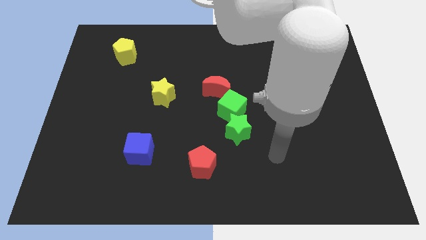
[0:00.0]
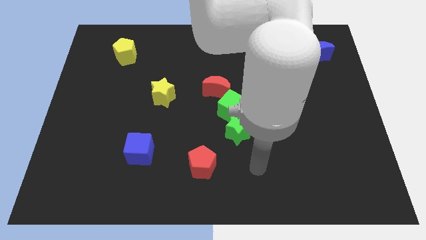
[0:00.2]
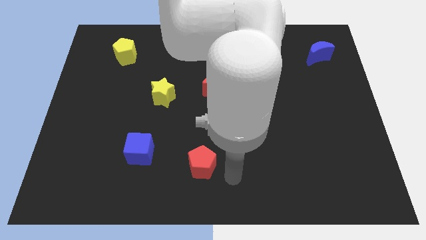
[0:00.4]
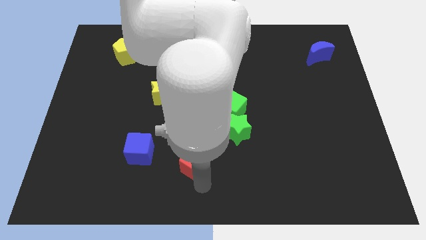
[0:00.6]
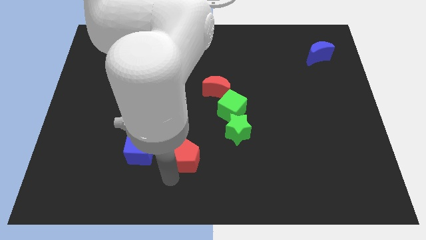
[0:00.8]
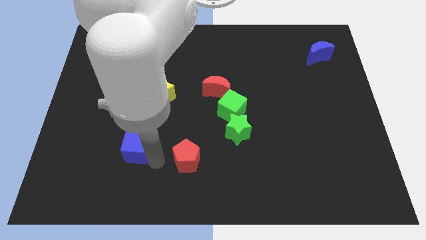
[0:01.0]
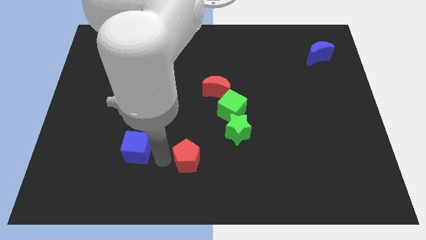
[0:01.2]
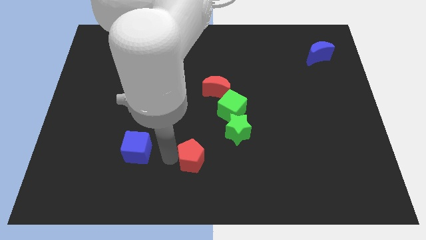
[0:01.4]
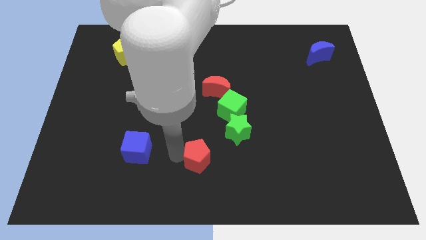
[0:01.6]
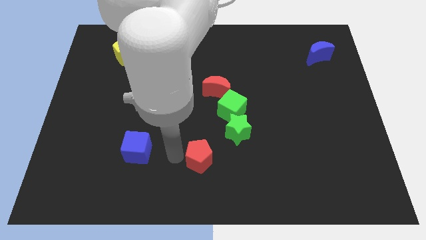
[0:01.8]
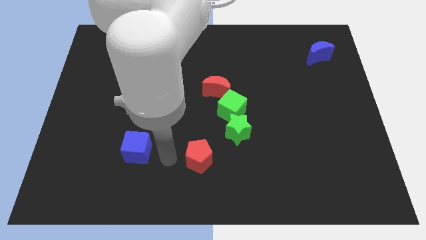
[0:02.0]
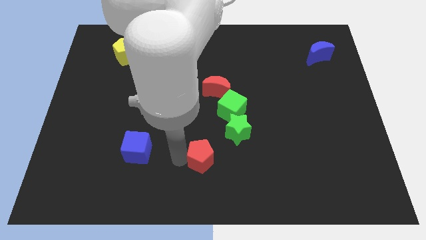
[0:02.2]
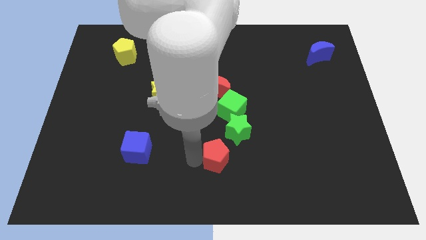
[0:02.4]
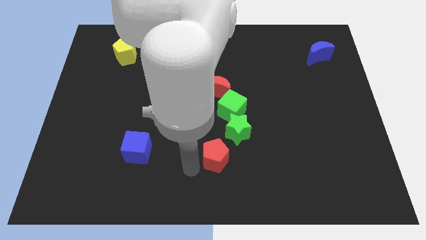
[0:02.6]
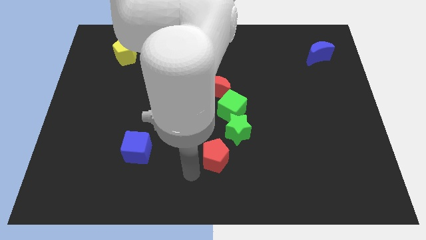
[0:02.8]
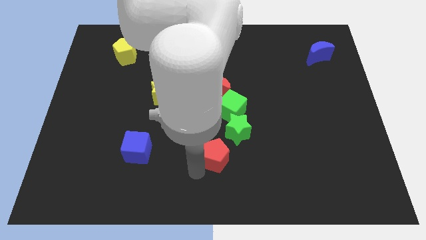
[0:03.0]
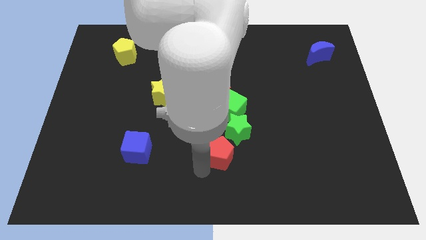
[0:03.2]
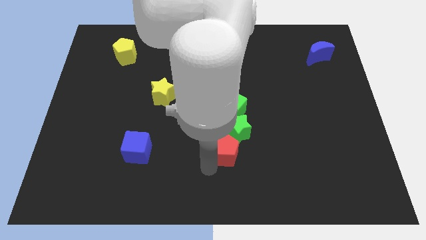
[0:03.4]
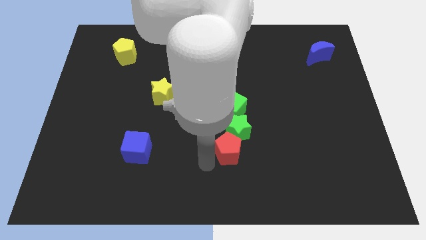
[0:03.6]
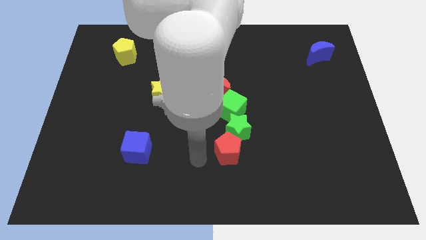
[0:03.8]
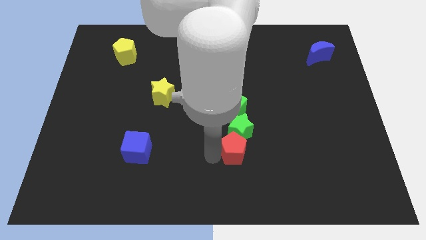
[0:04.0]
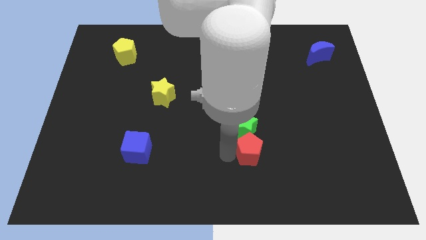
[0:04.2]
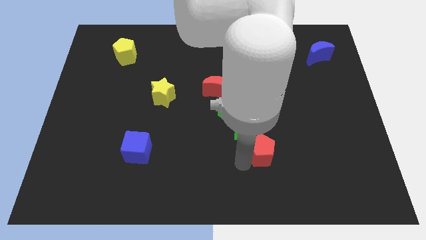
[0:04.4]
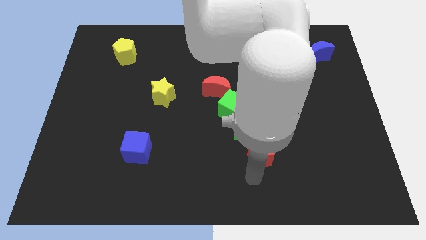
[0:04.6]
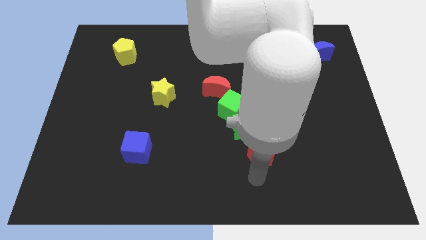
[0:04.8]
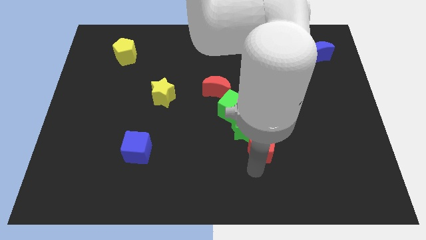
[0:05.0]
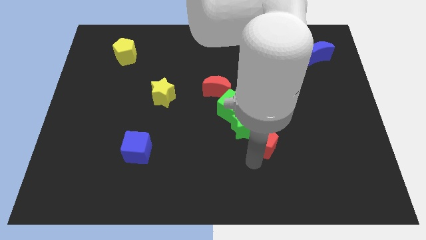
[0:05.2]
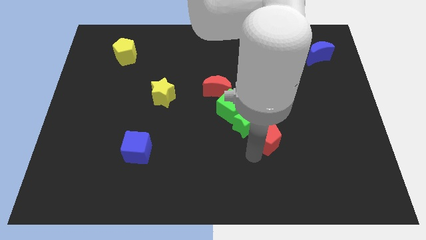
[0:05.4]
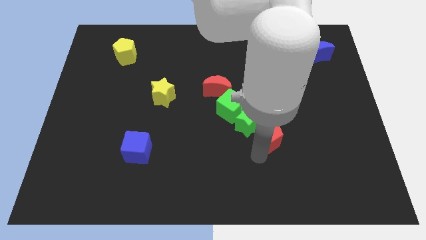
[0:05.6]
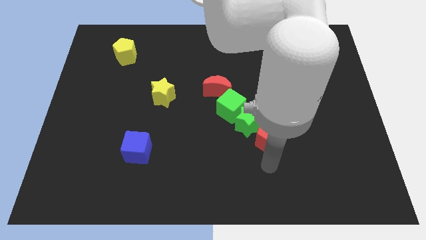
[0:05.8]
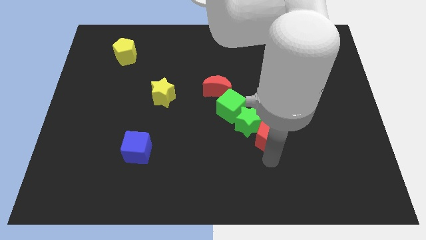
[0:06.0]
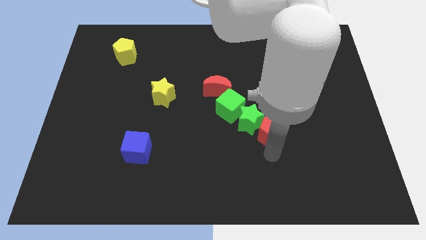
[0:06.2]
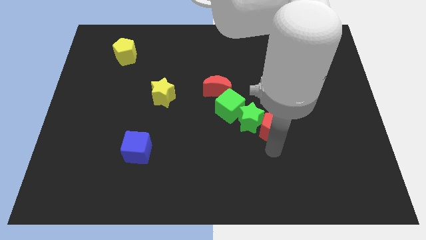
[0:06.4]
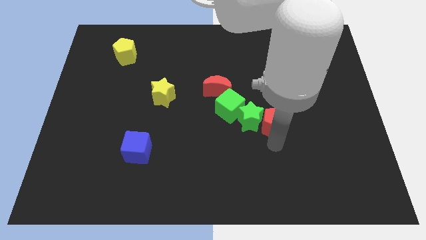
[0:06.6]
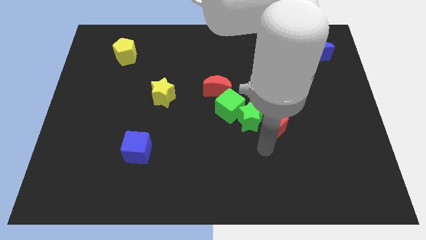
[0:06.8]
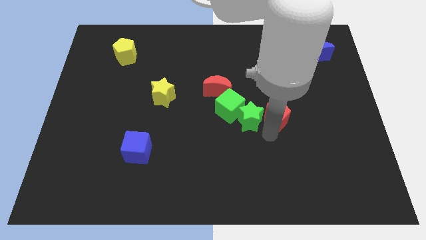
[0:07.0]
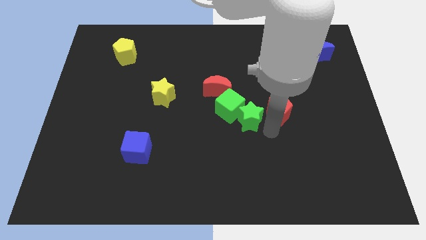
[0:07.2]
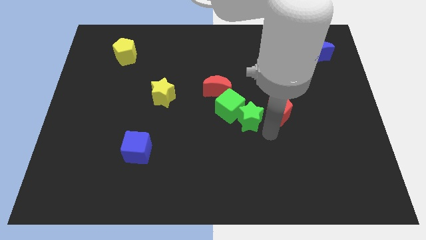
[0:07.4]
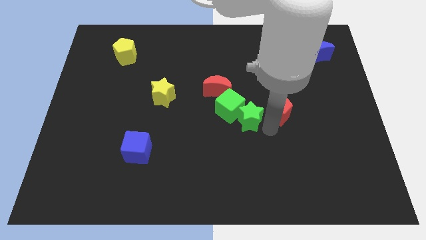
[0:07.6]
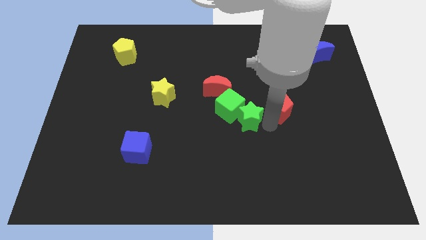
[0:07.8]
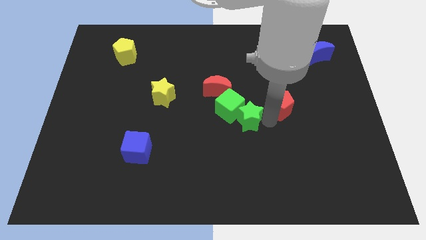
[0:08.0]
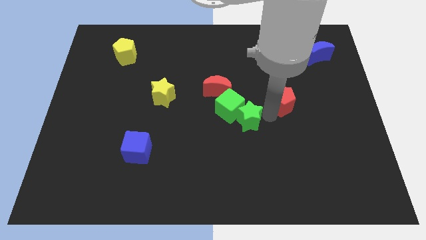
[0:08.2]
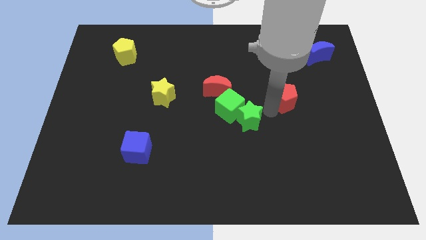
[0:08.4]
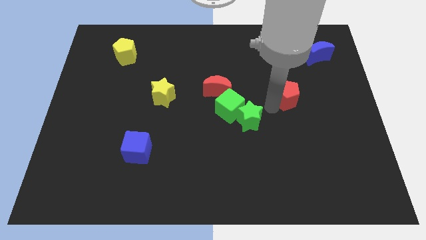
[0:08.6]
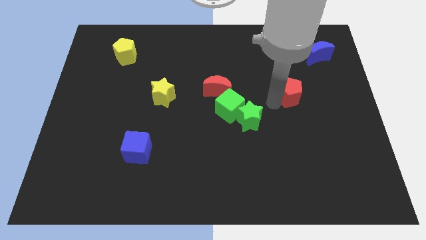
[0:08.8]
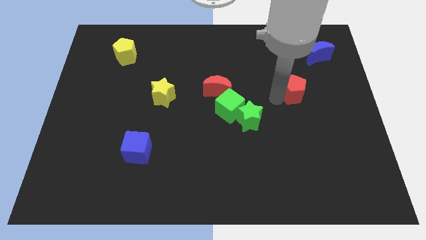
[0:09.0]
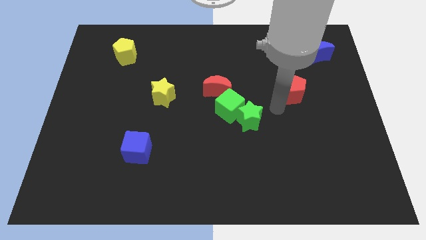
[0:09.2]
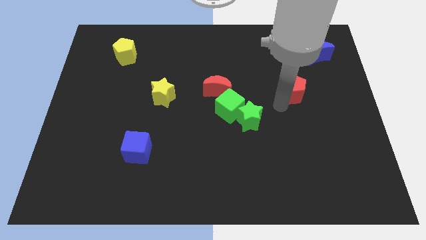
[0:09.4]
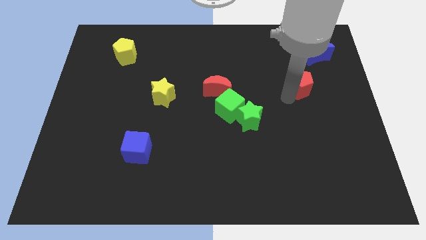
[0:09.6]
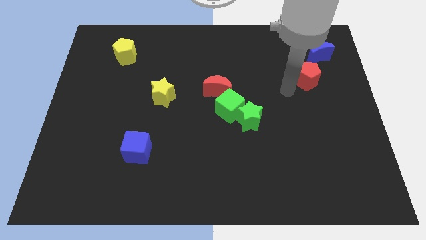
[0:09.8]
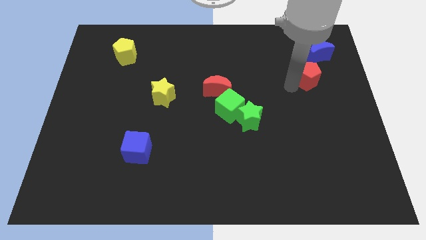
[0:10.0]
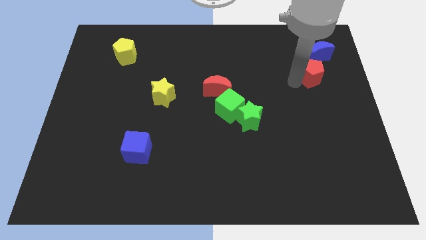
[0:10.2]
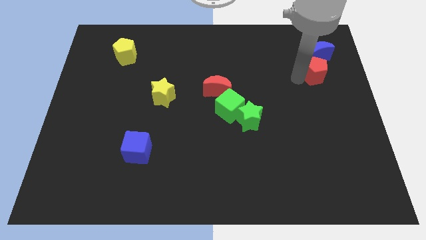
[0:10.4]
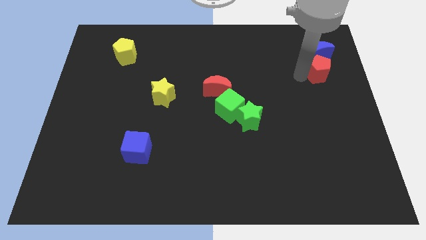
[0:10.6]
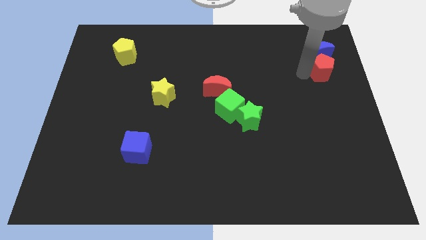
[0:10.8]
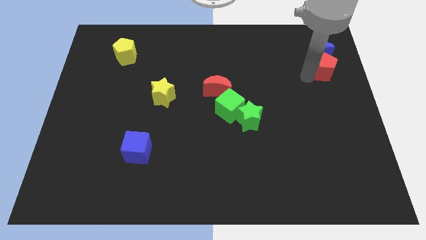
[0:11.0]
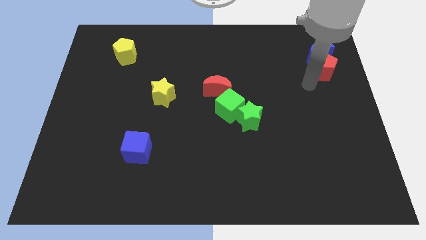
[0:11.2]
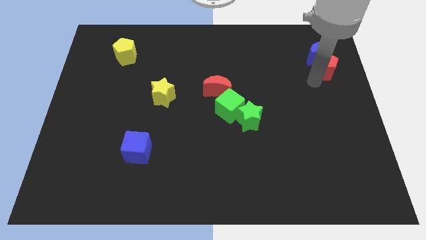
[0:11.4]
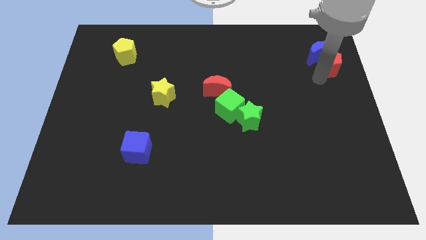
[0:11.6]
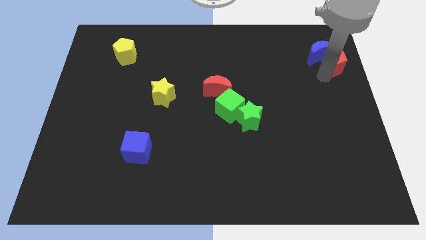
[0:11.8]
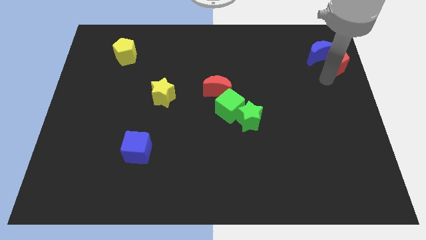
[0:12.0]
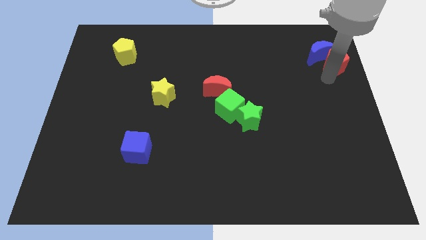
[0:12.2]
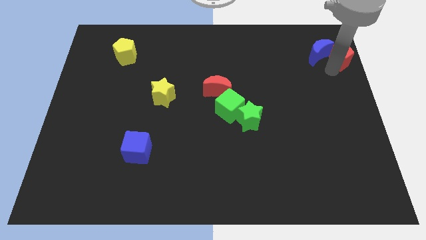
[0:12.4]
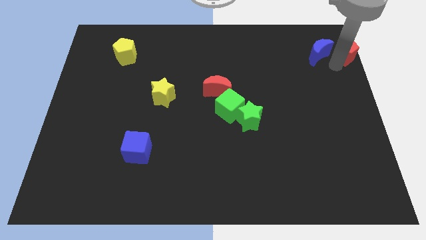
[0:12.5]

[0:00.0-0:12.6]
push the red pentagon to the top right

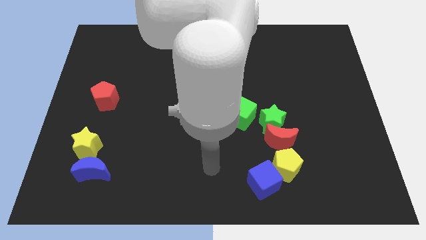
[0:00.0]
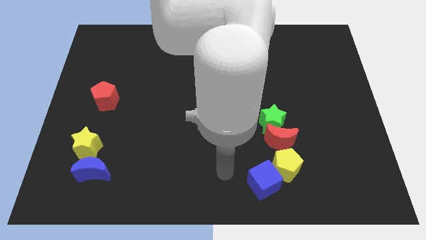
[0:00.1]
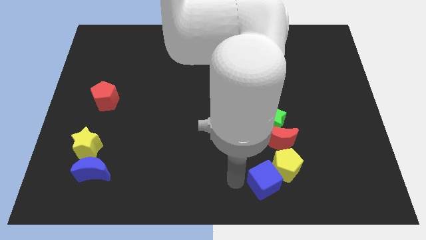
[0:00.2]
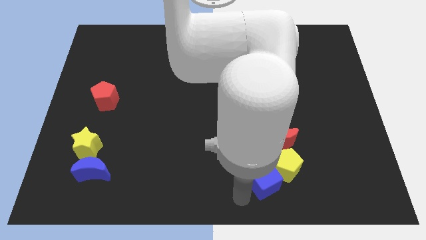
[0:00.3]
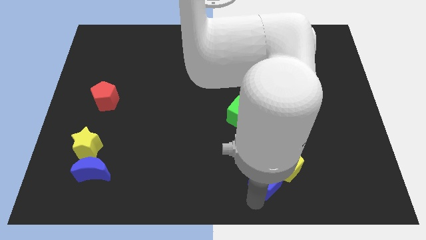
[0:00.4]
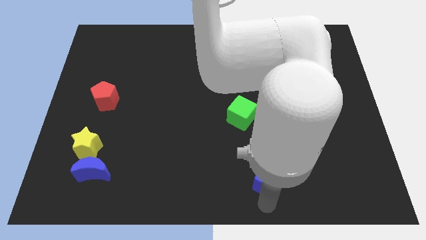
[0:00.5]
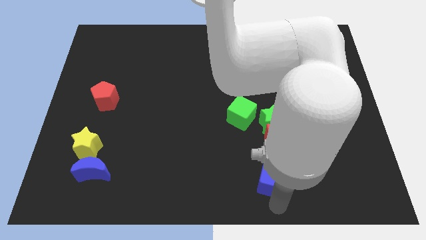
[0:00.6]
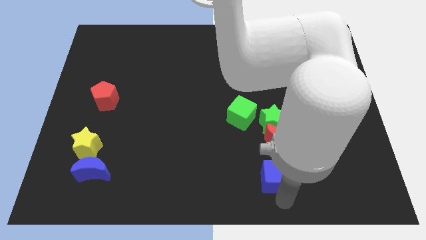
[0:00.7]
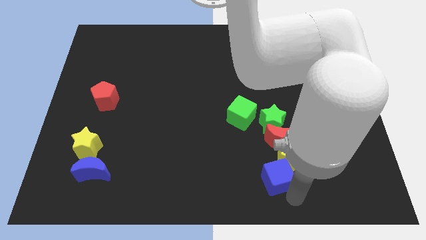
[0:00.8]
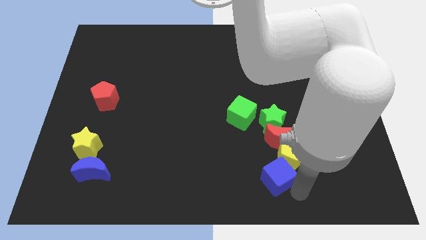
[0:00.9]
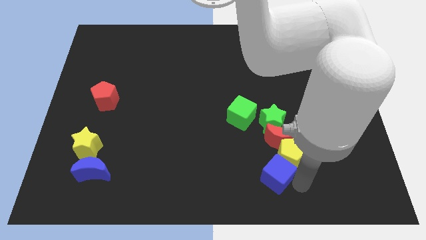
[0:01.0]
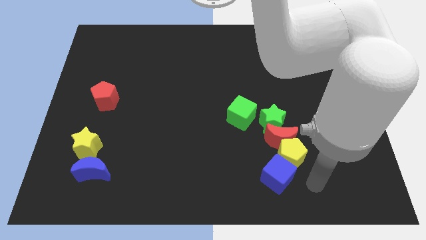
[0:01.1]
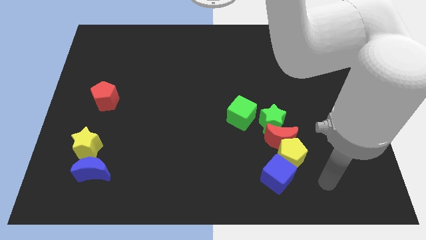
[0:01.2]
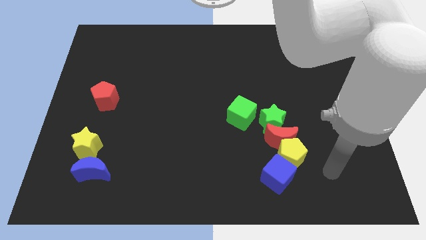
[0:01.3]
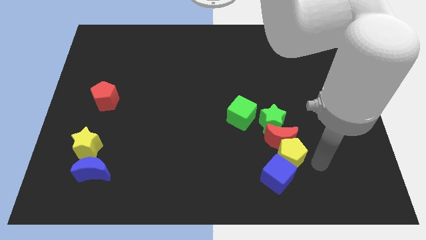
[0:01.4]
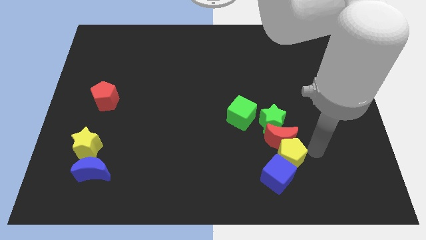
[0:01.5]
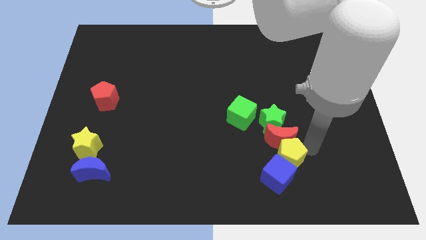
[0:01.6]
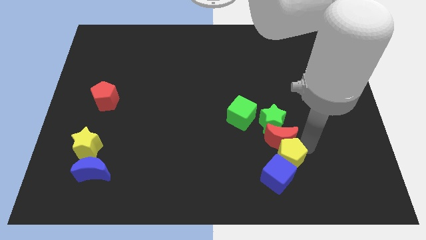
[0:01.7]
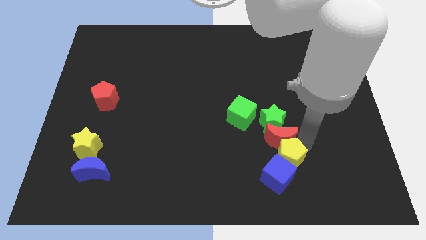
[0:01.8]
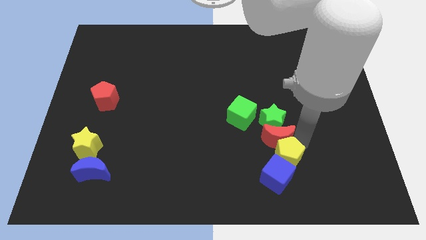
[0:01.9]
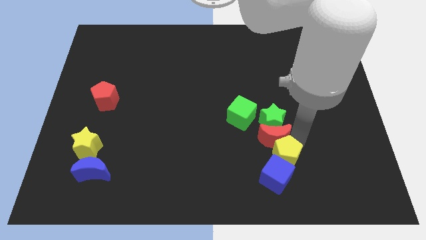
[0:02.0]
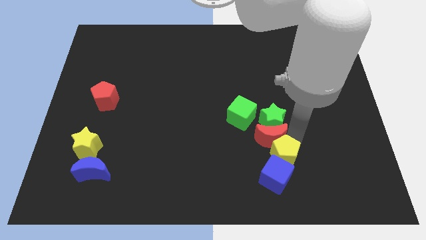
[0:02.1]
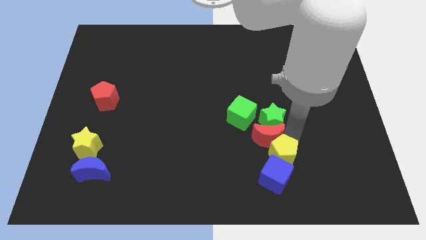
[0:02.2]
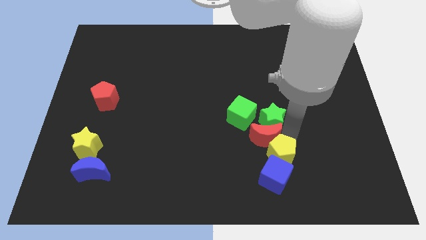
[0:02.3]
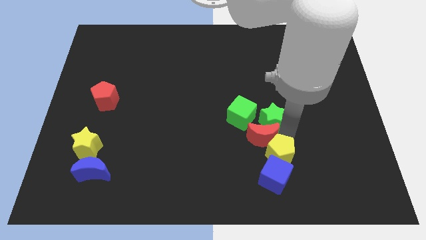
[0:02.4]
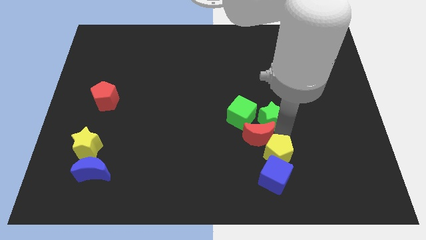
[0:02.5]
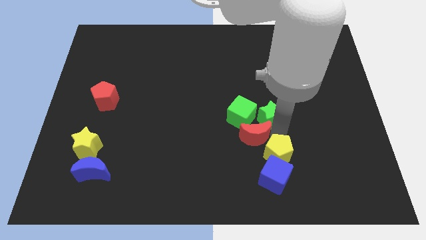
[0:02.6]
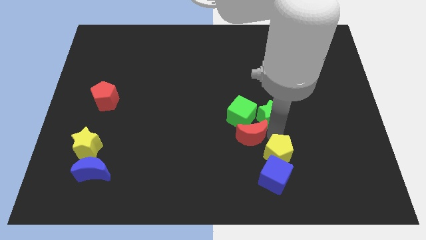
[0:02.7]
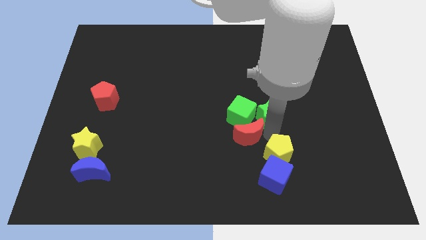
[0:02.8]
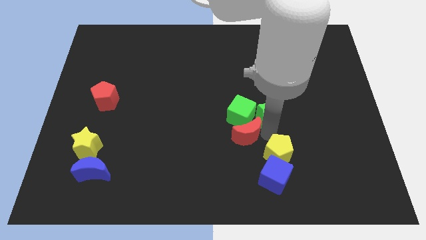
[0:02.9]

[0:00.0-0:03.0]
push the red moon to the middle
